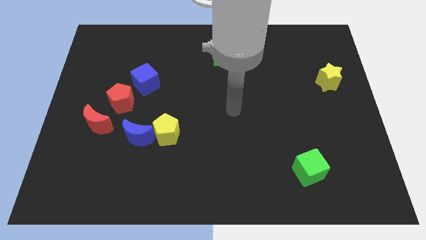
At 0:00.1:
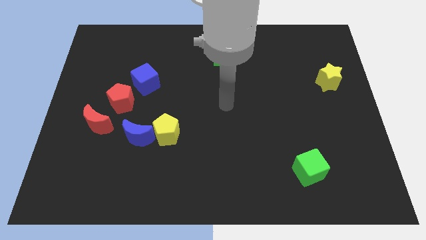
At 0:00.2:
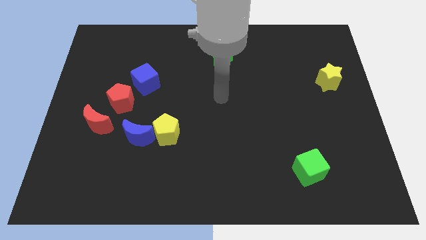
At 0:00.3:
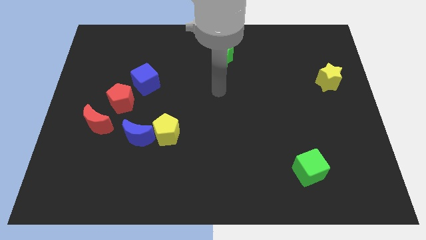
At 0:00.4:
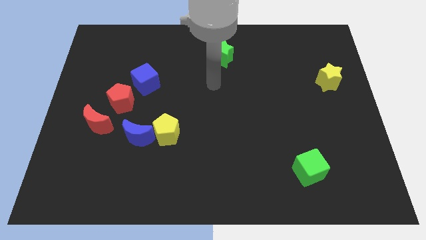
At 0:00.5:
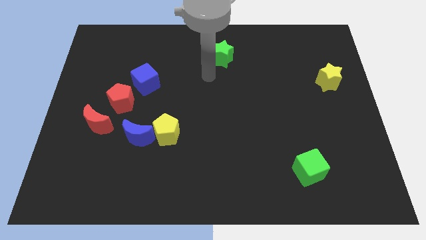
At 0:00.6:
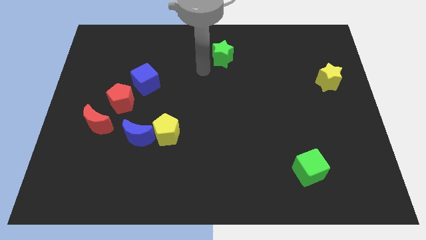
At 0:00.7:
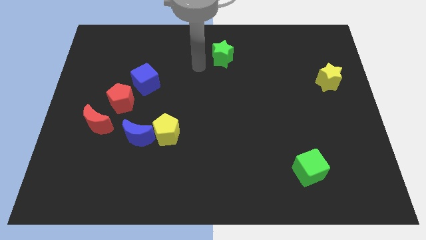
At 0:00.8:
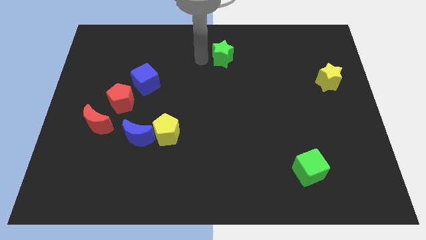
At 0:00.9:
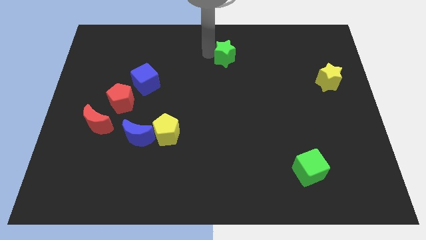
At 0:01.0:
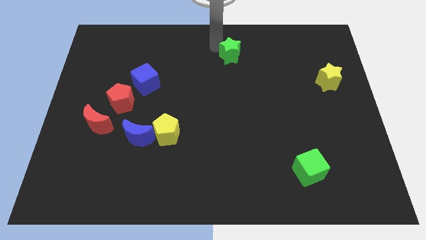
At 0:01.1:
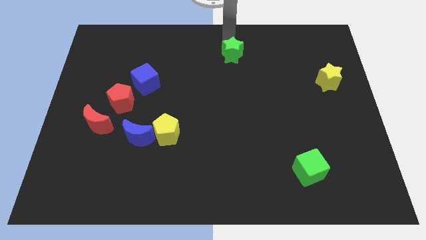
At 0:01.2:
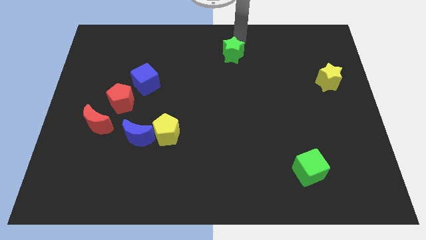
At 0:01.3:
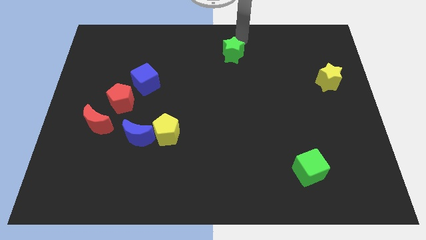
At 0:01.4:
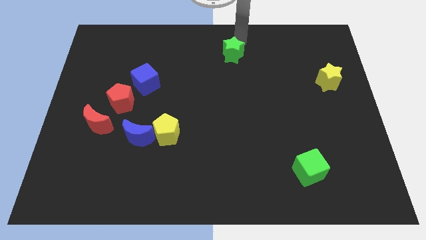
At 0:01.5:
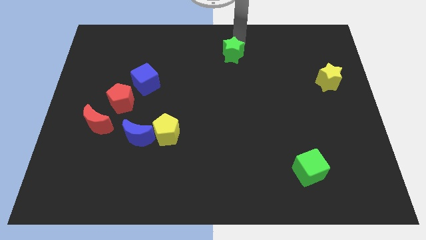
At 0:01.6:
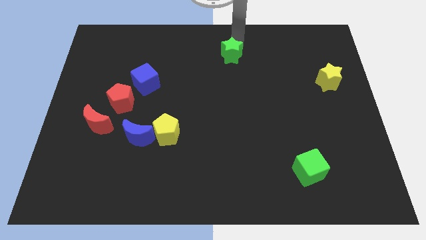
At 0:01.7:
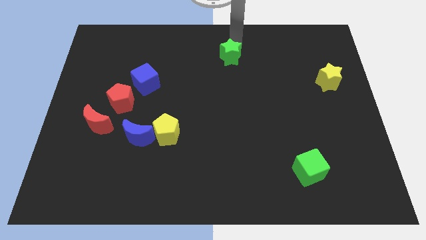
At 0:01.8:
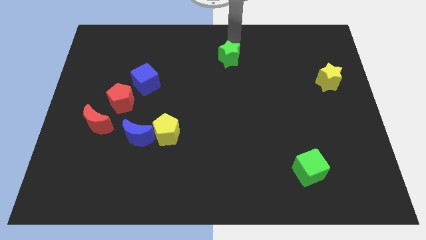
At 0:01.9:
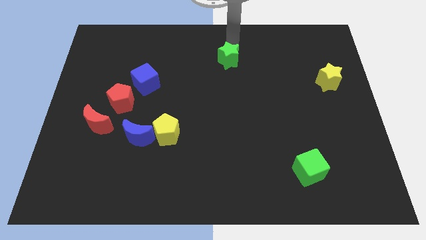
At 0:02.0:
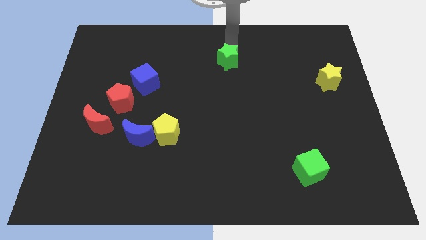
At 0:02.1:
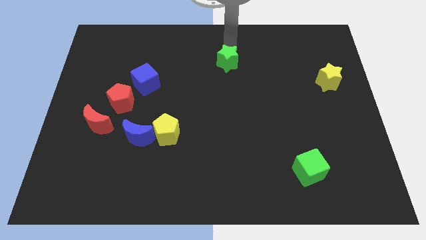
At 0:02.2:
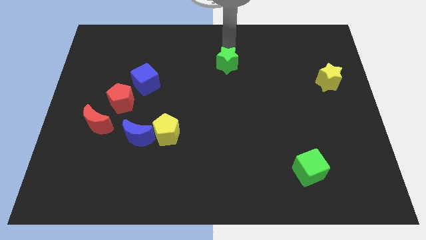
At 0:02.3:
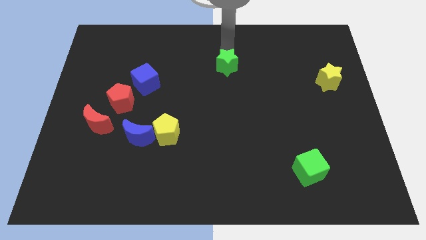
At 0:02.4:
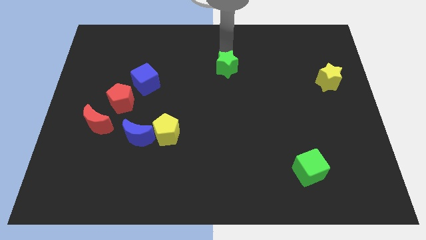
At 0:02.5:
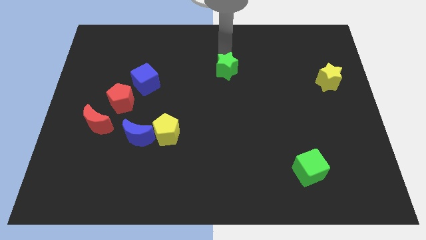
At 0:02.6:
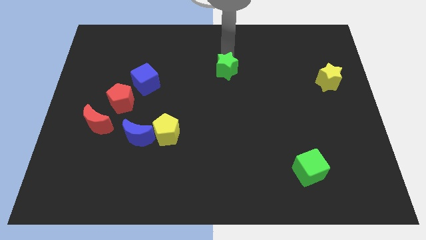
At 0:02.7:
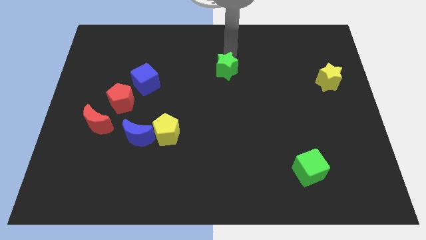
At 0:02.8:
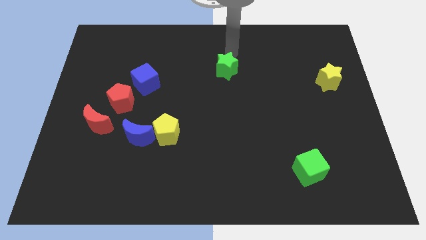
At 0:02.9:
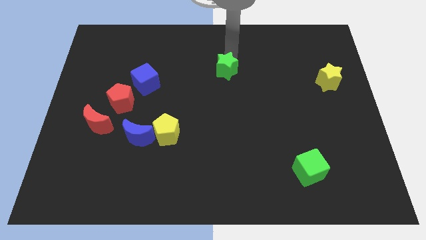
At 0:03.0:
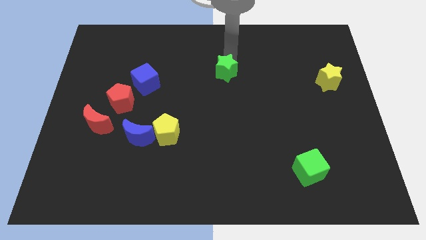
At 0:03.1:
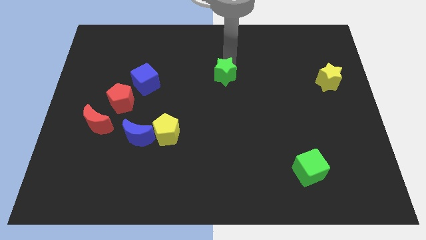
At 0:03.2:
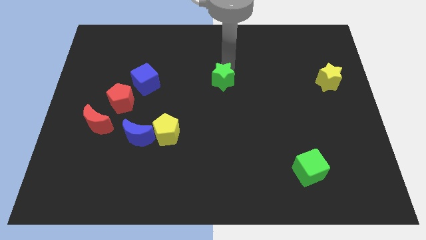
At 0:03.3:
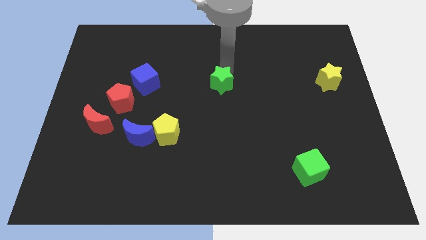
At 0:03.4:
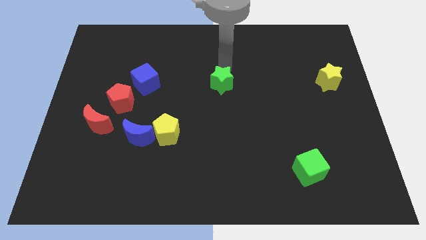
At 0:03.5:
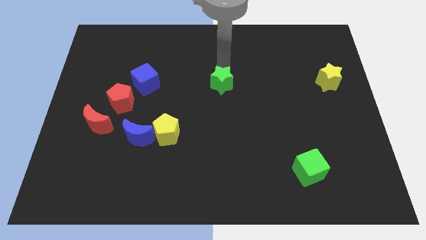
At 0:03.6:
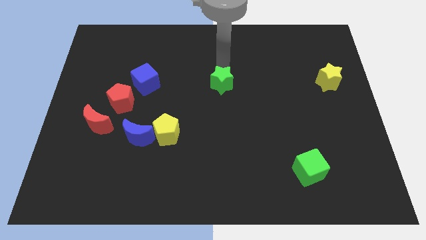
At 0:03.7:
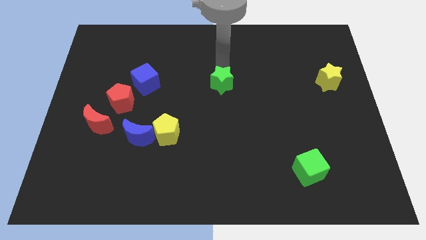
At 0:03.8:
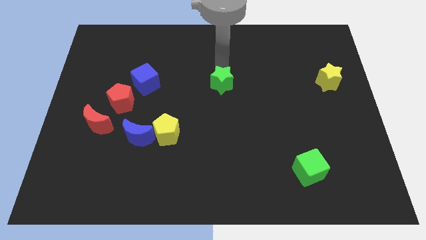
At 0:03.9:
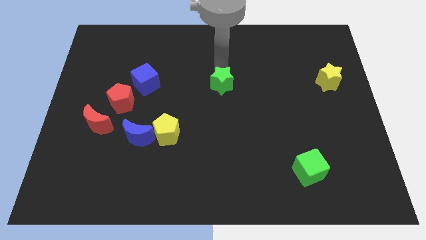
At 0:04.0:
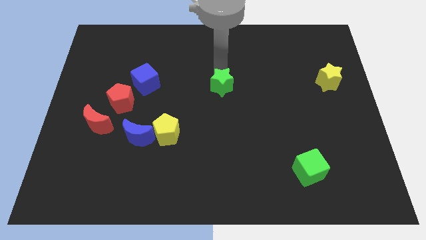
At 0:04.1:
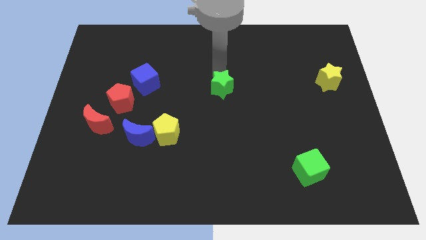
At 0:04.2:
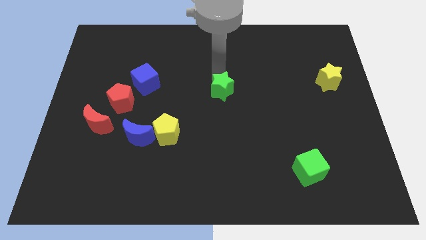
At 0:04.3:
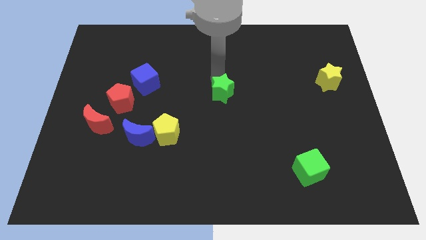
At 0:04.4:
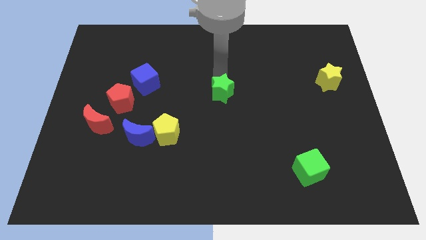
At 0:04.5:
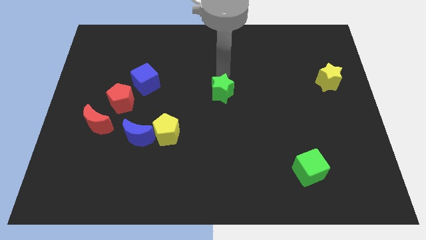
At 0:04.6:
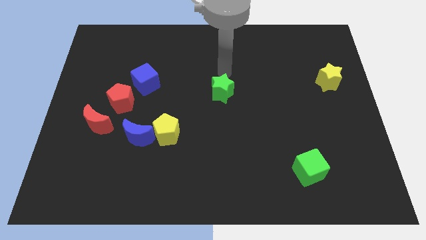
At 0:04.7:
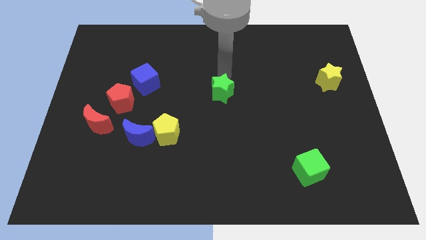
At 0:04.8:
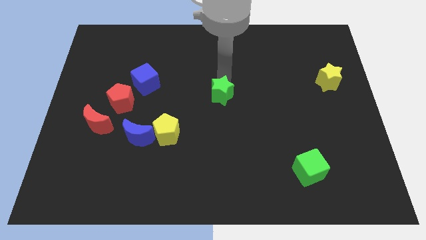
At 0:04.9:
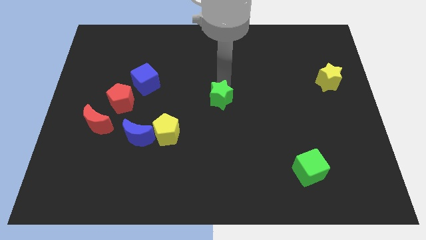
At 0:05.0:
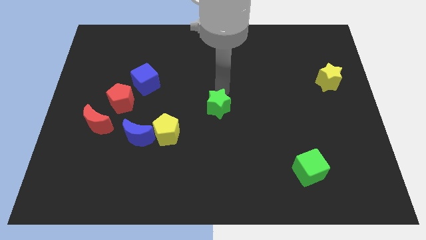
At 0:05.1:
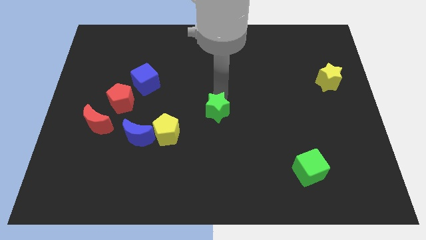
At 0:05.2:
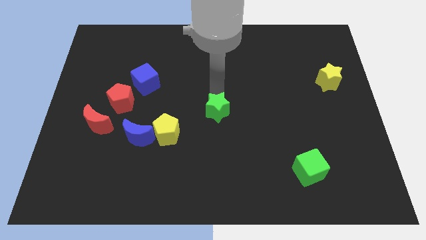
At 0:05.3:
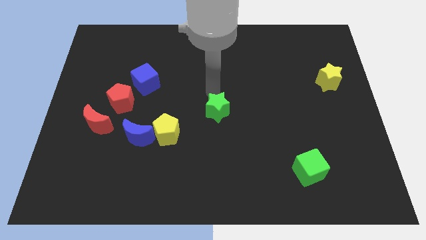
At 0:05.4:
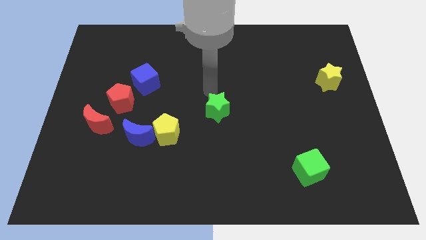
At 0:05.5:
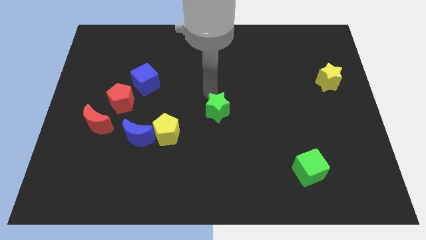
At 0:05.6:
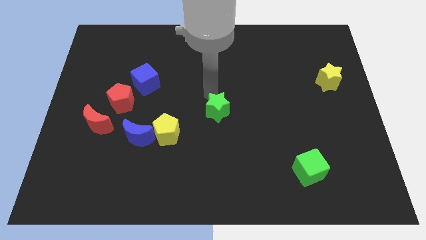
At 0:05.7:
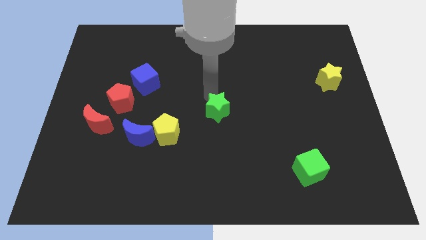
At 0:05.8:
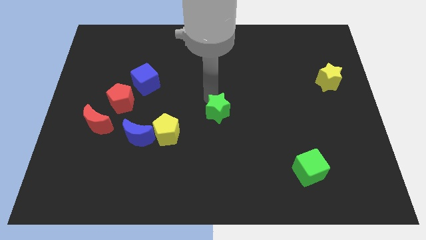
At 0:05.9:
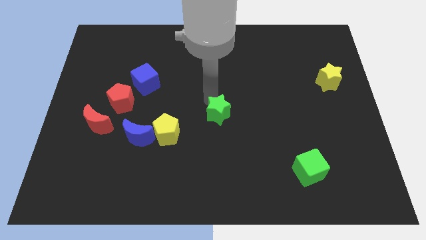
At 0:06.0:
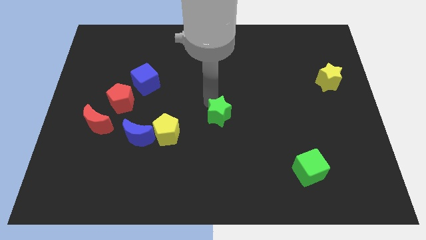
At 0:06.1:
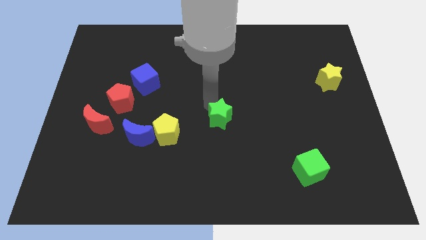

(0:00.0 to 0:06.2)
push the green star down

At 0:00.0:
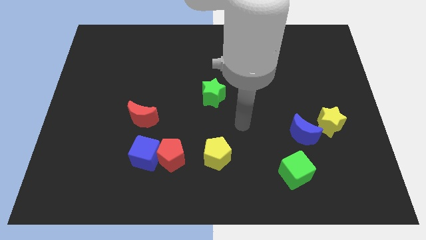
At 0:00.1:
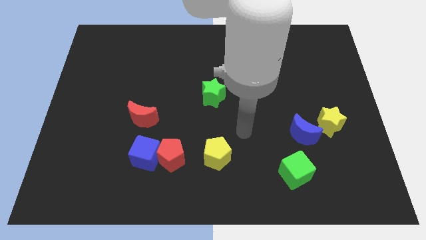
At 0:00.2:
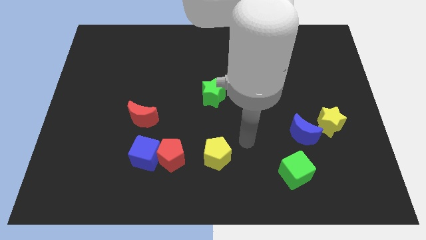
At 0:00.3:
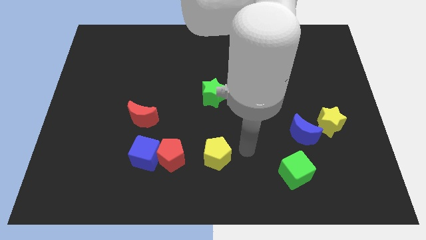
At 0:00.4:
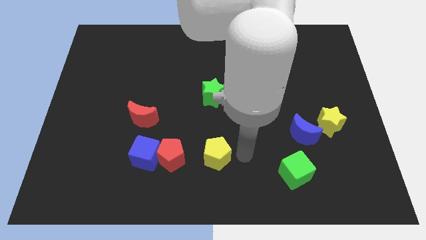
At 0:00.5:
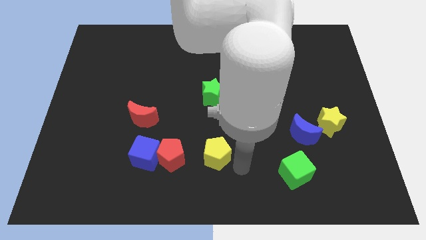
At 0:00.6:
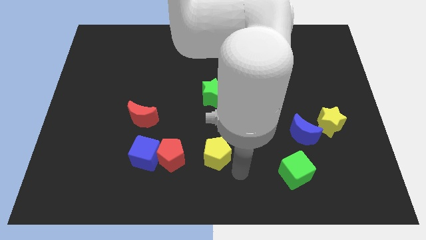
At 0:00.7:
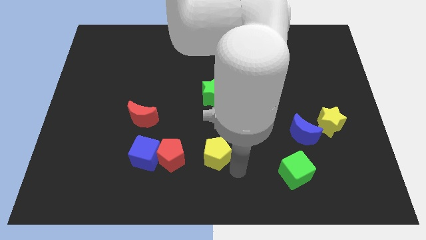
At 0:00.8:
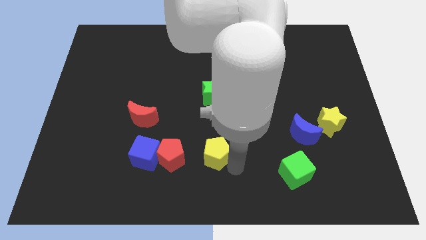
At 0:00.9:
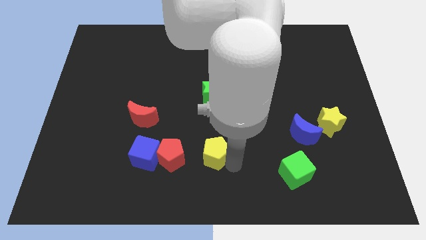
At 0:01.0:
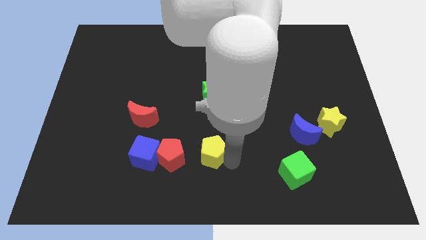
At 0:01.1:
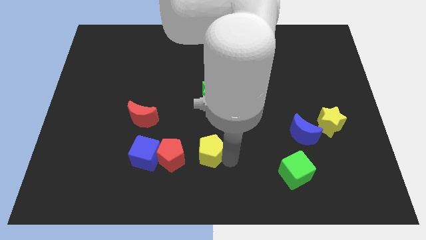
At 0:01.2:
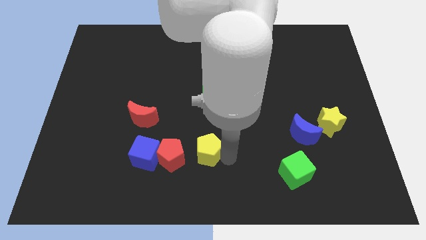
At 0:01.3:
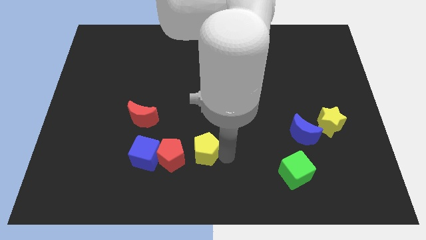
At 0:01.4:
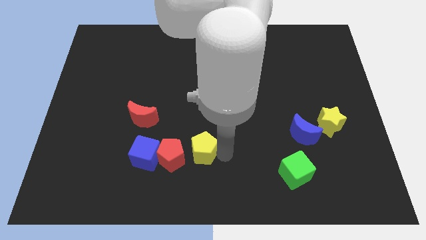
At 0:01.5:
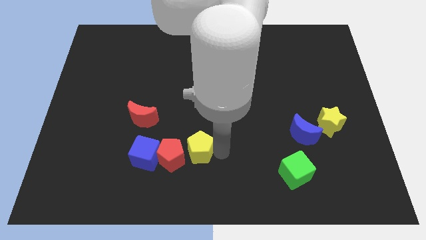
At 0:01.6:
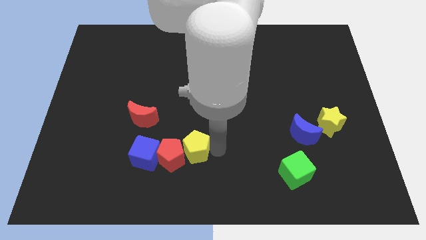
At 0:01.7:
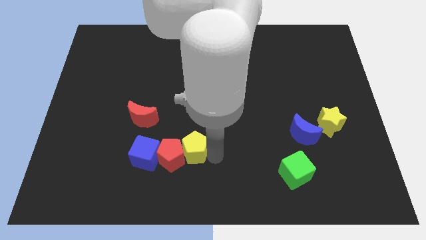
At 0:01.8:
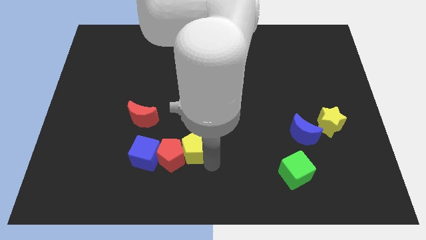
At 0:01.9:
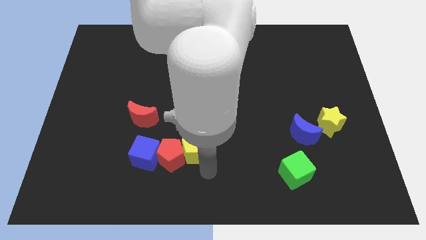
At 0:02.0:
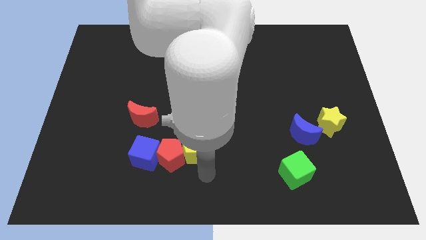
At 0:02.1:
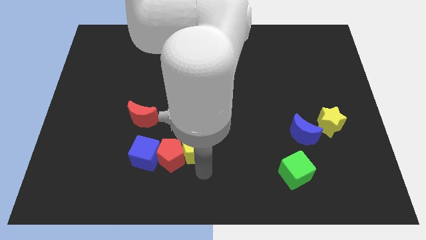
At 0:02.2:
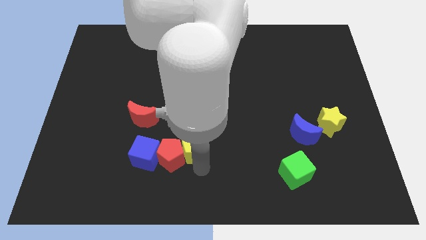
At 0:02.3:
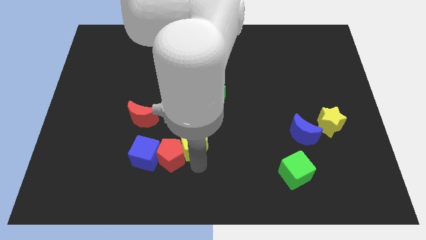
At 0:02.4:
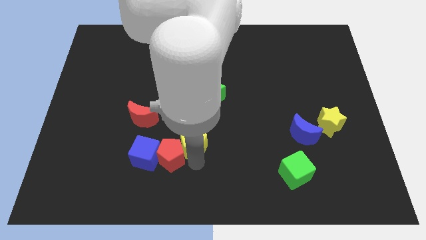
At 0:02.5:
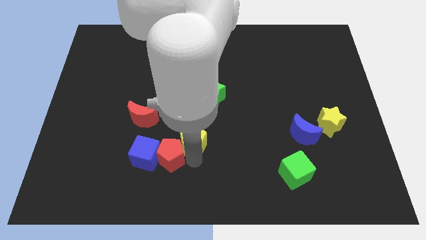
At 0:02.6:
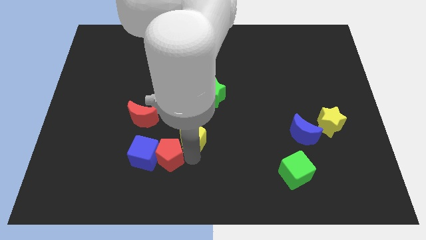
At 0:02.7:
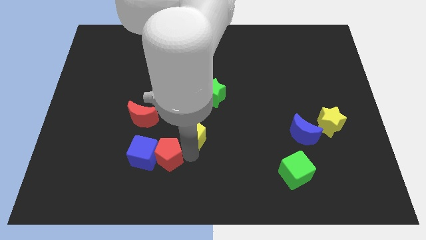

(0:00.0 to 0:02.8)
push the yellow pentagon a little bit upwards and then to the left
